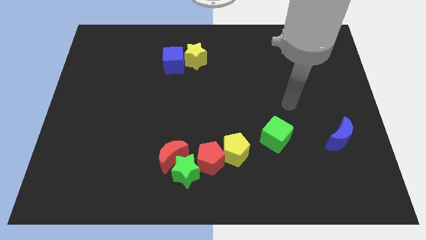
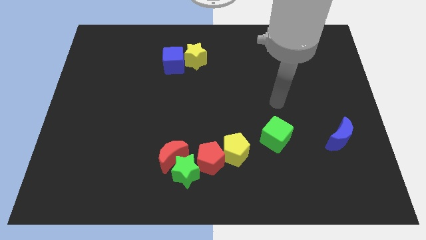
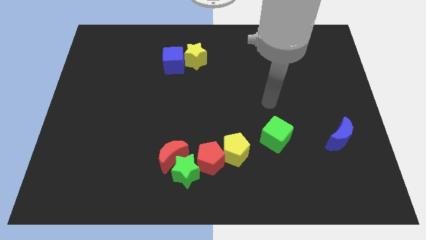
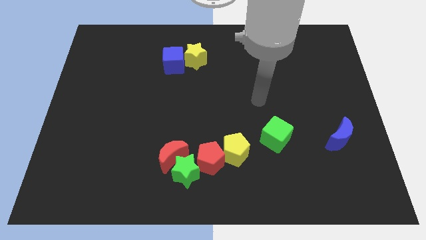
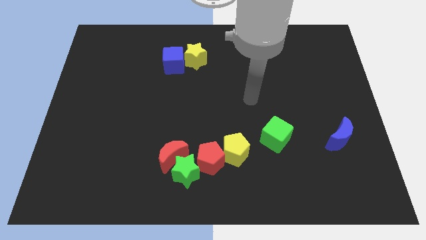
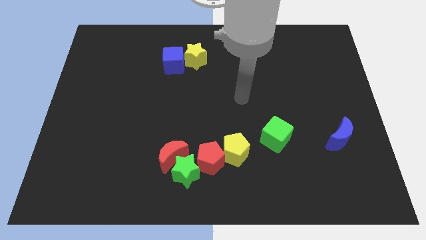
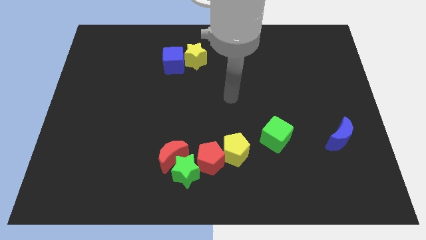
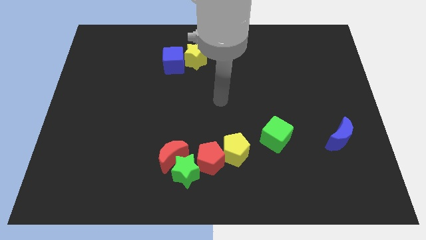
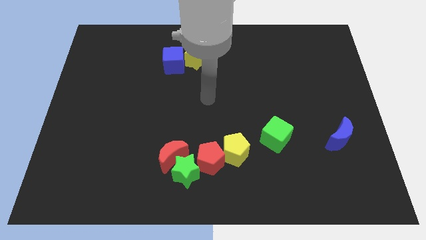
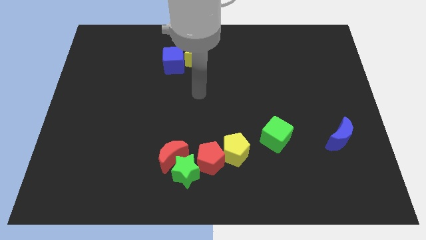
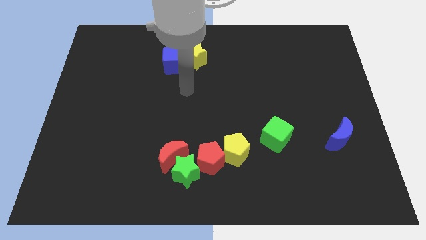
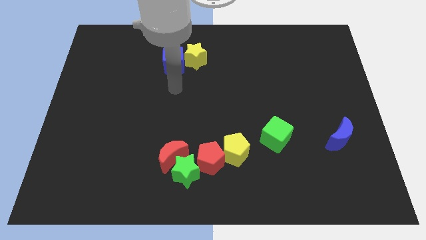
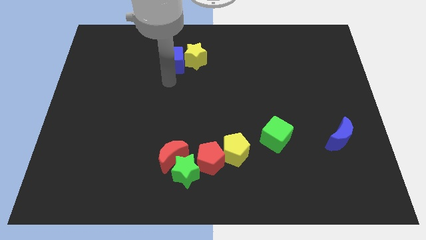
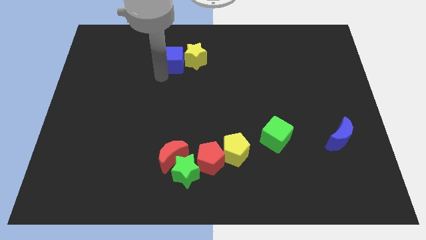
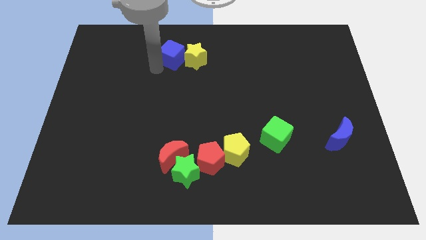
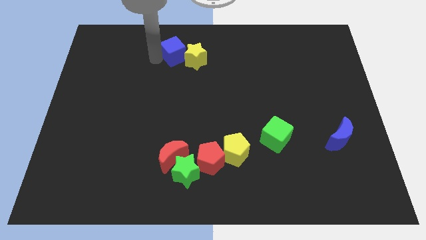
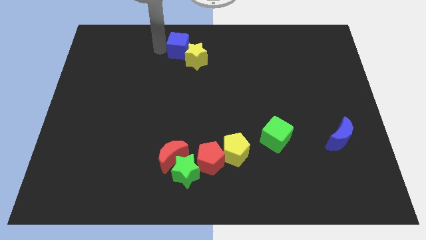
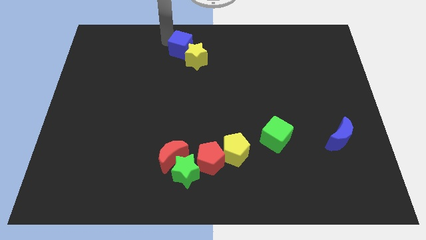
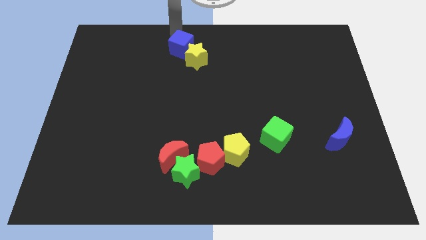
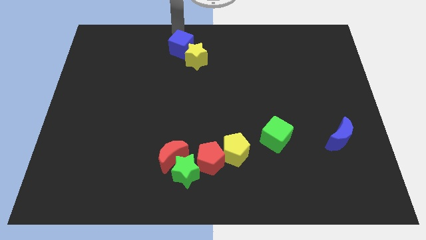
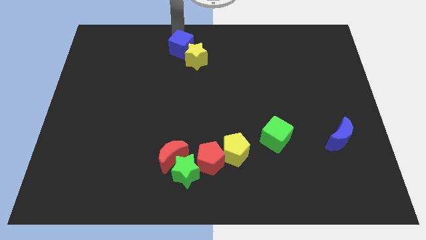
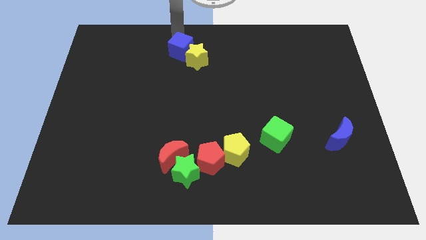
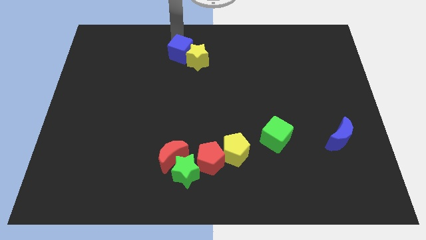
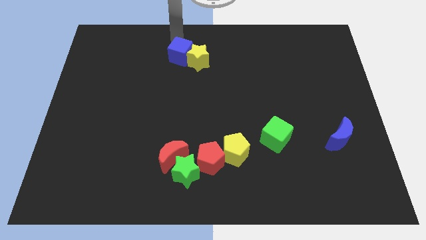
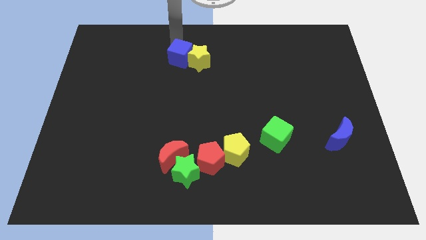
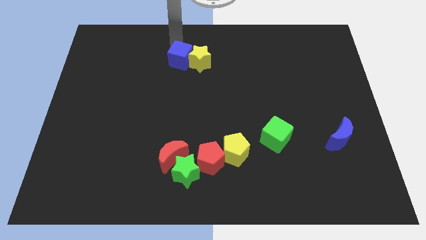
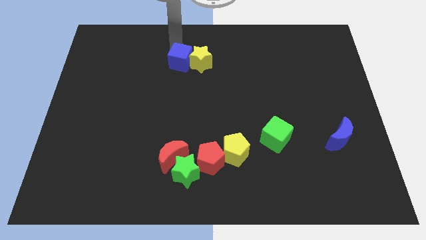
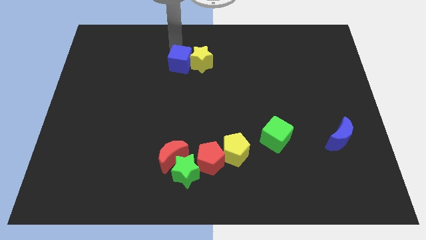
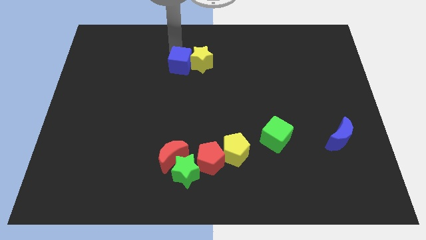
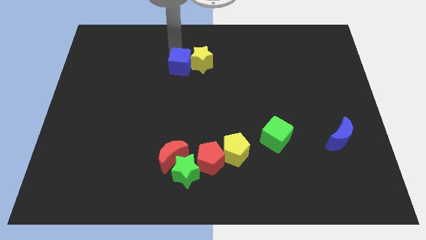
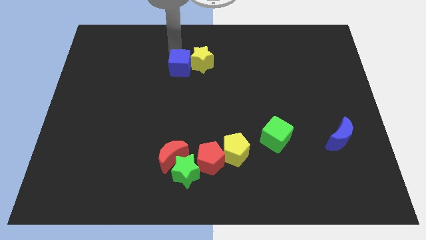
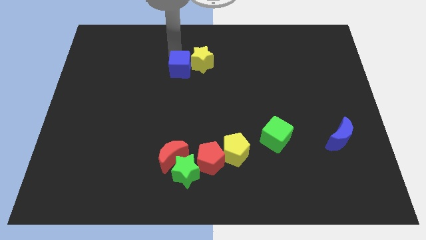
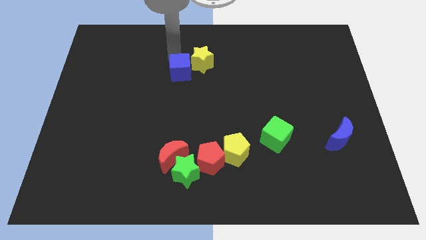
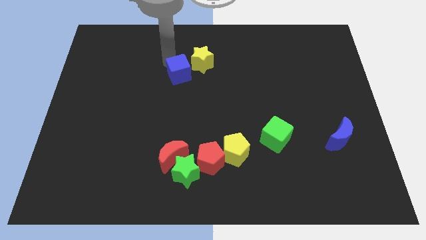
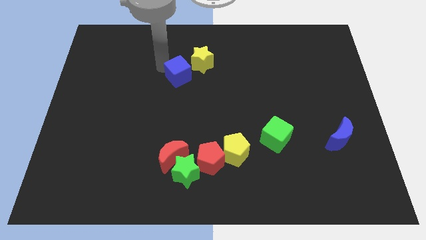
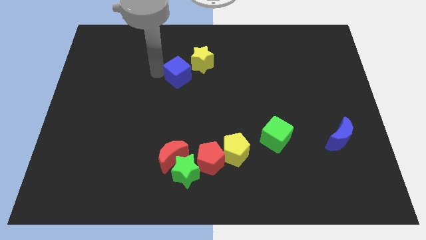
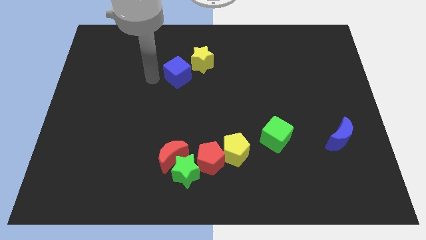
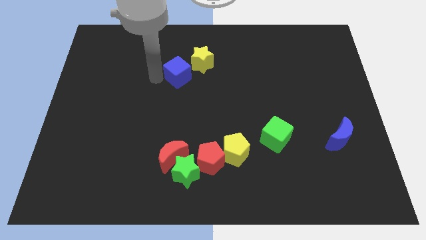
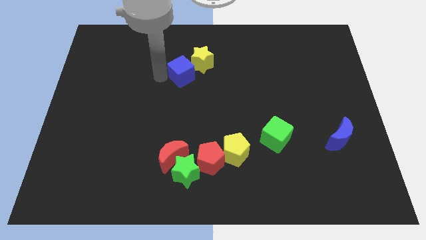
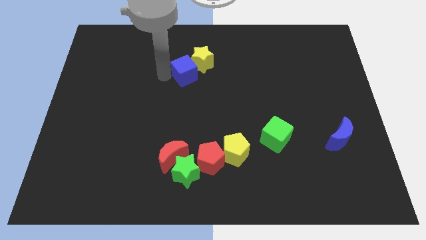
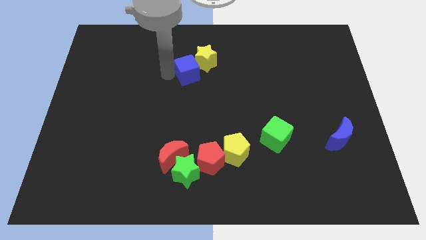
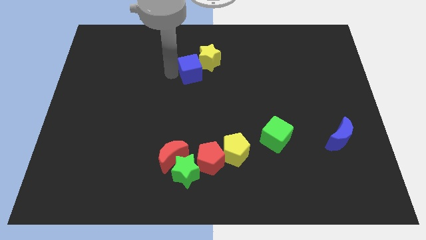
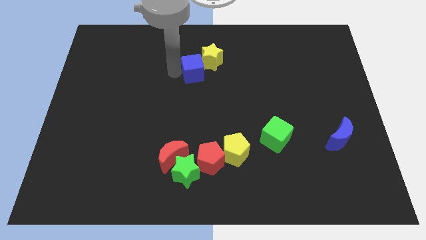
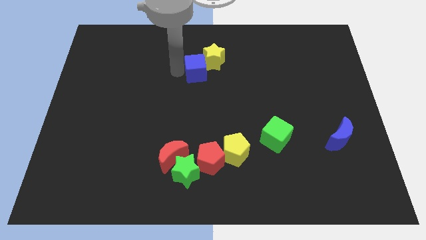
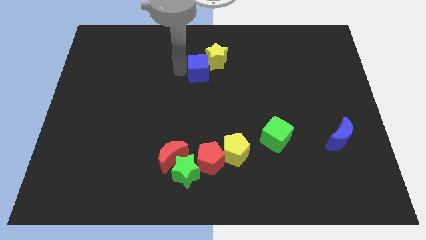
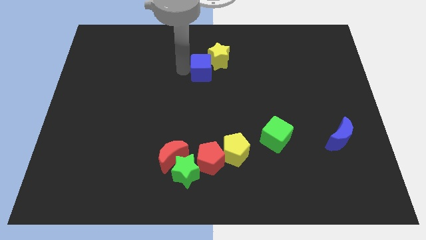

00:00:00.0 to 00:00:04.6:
slide the blue cube right a little

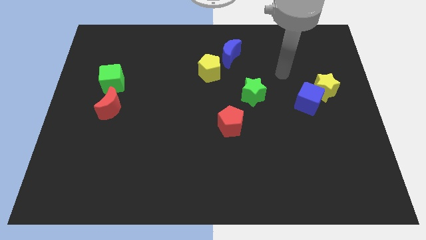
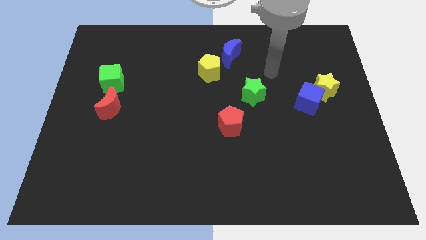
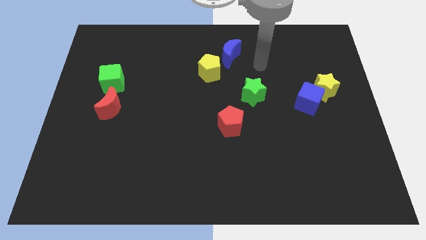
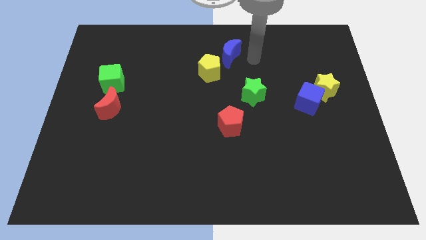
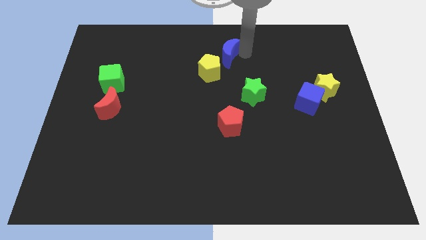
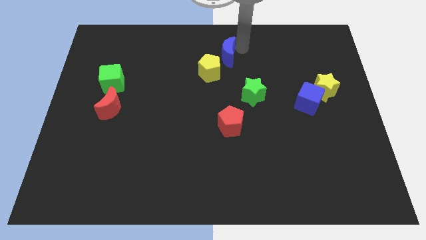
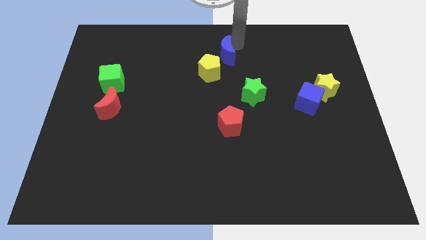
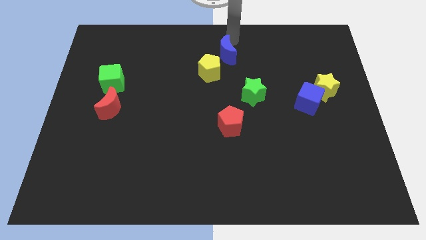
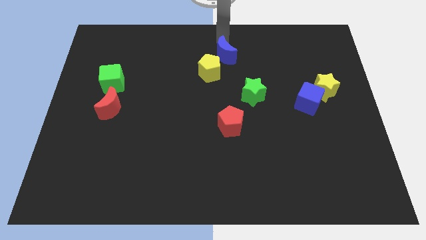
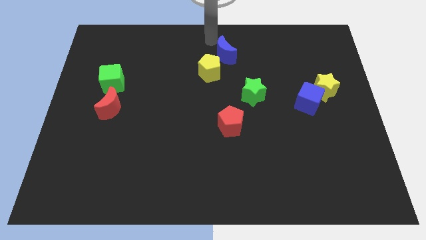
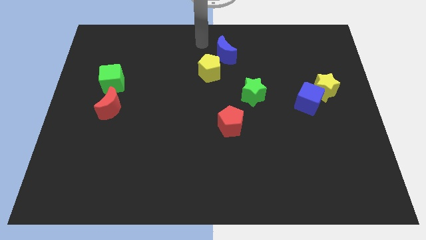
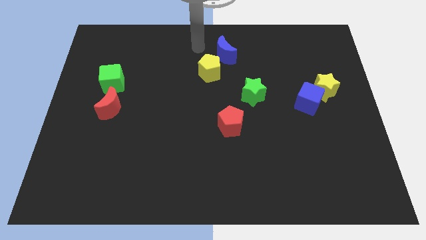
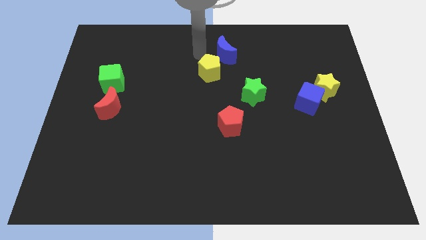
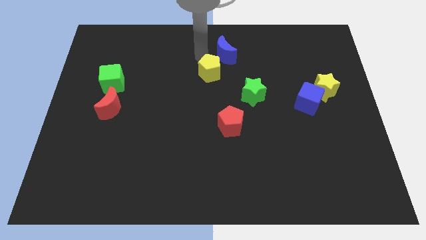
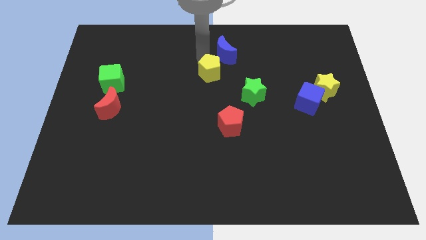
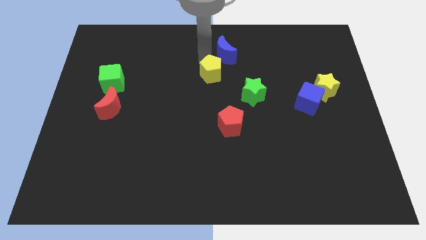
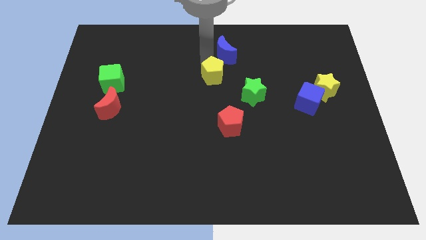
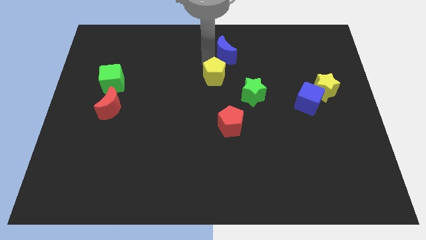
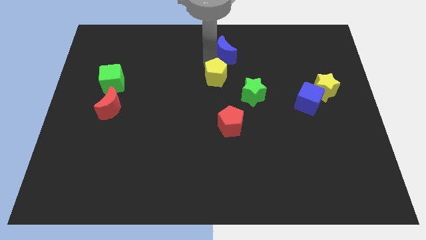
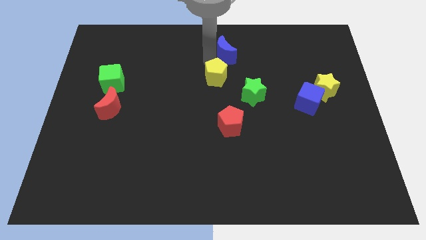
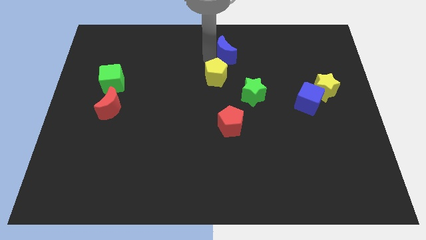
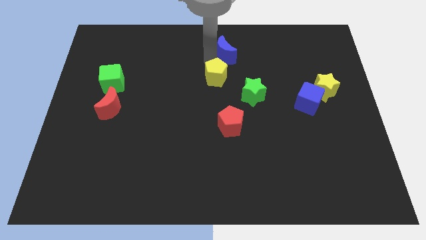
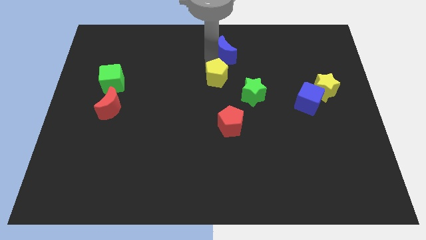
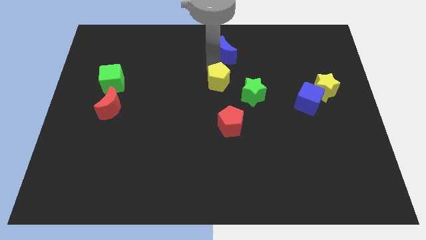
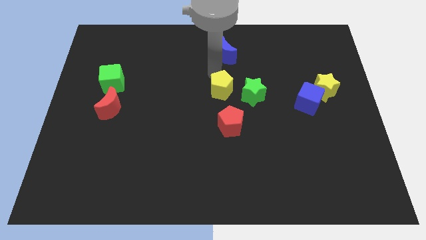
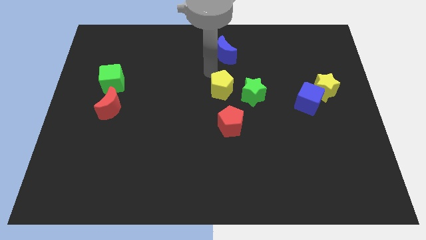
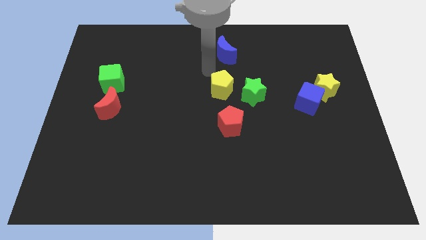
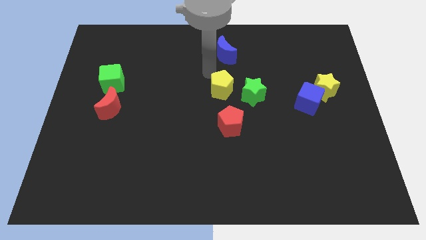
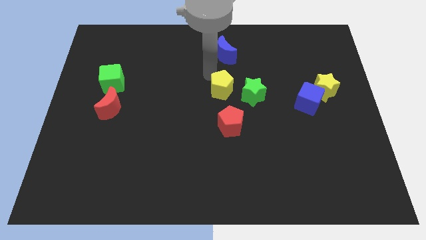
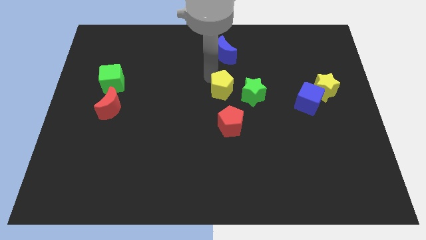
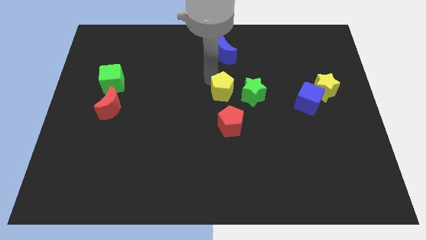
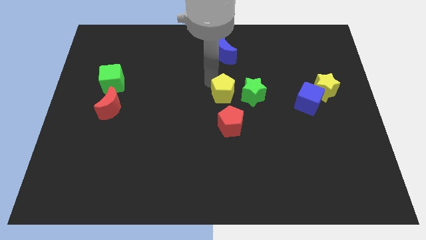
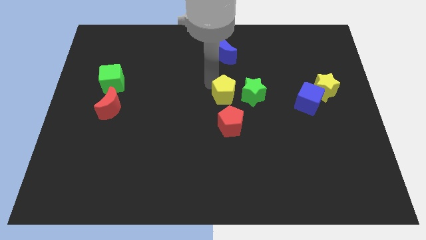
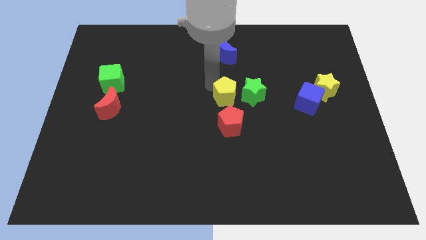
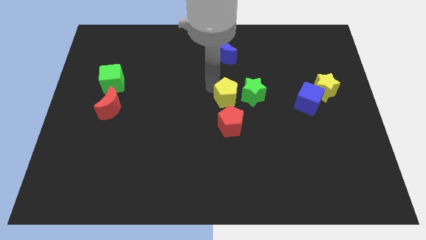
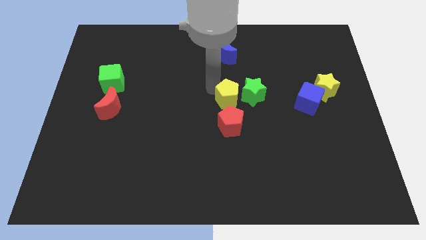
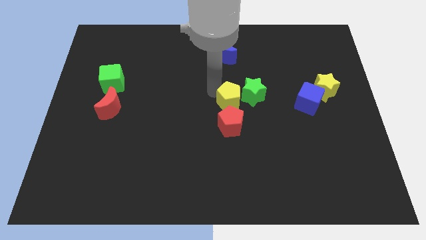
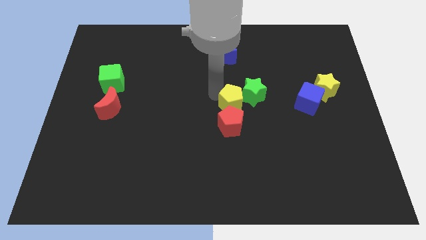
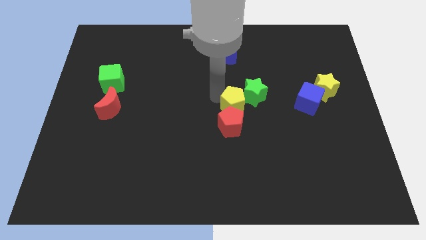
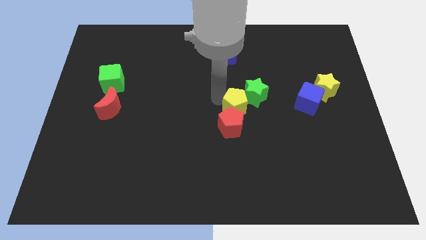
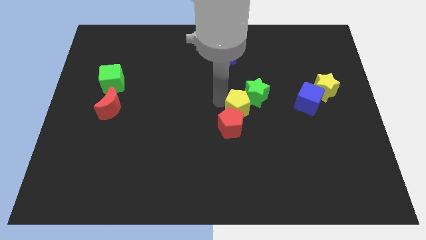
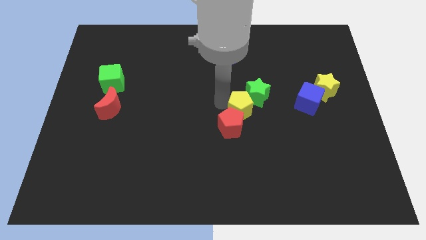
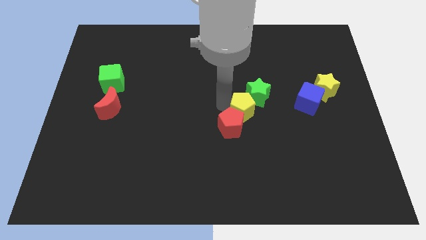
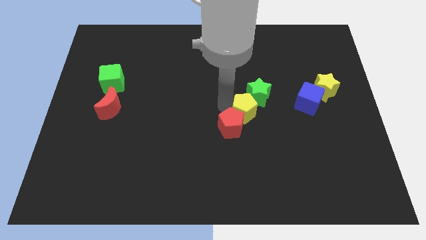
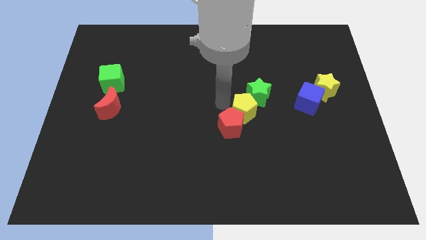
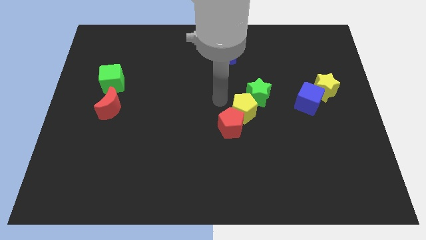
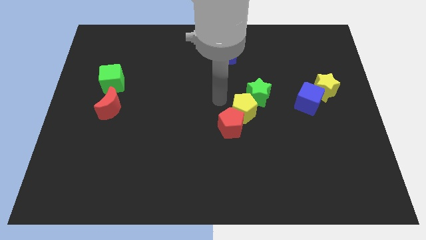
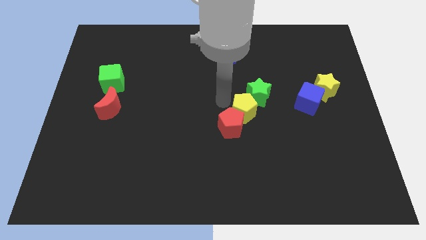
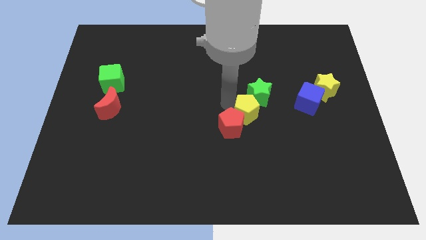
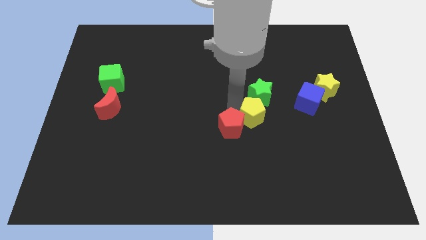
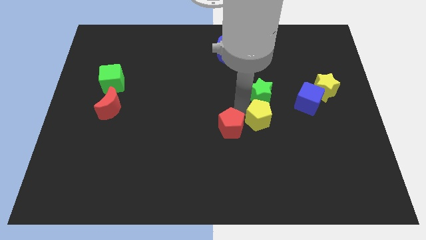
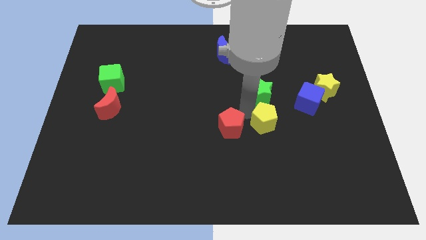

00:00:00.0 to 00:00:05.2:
move the yellow pentagon diagonally down and to the right
